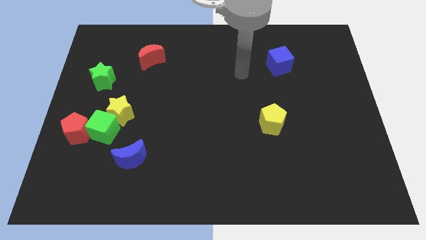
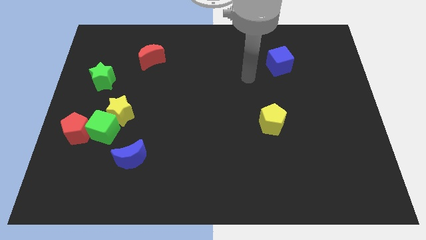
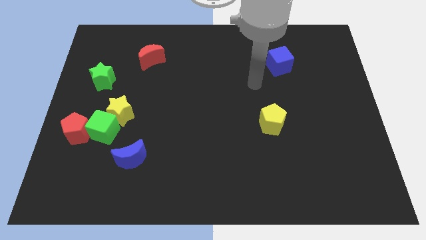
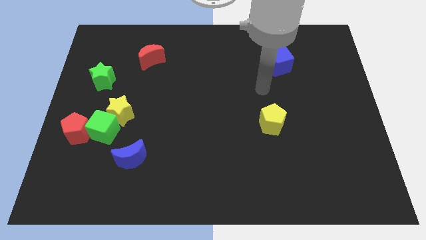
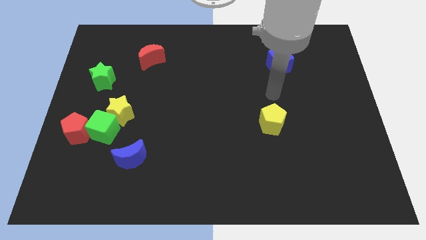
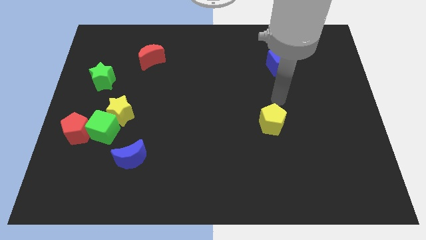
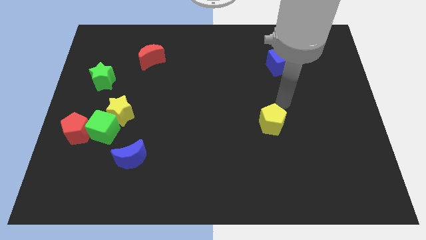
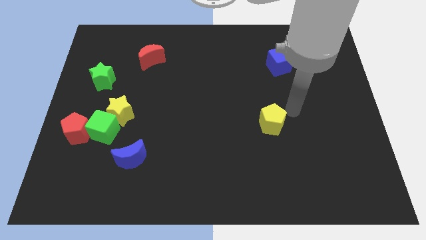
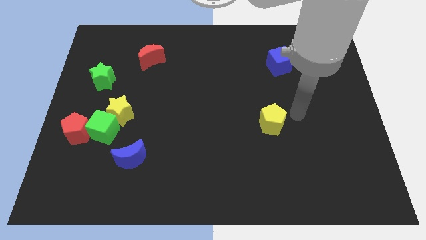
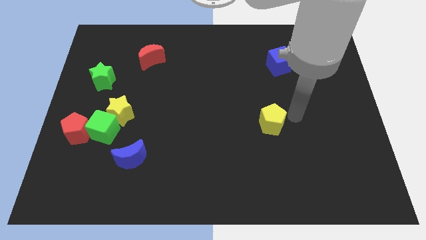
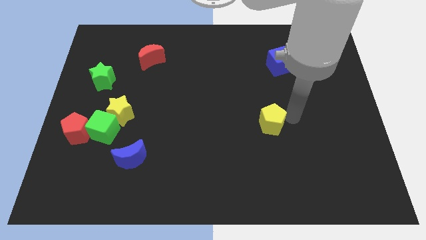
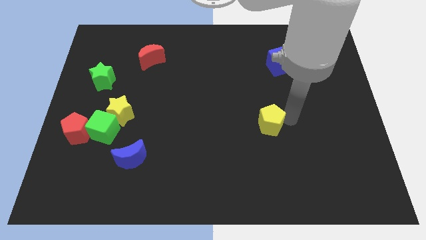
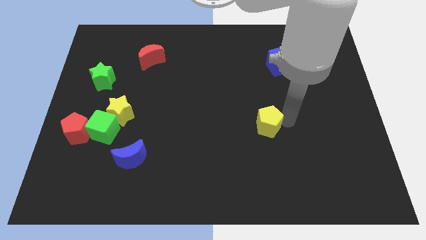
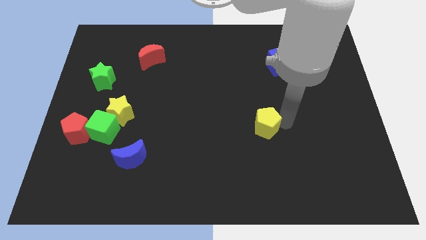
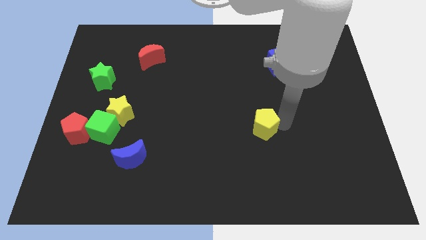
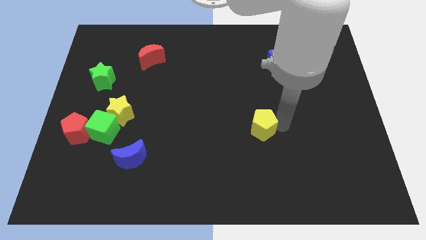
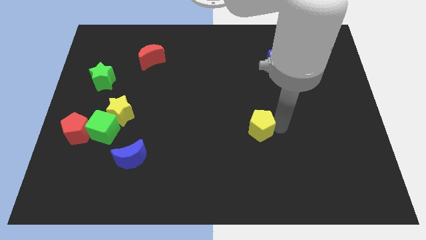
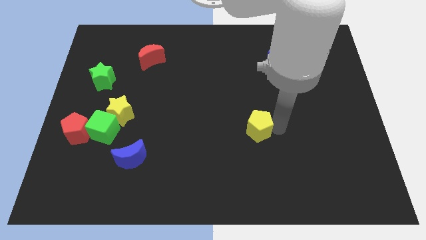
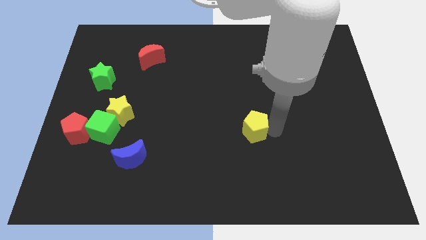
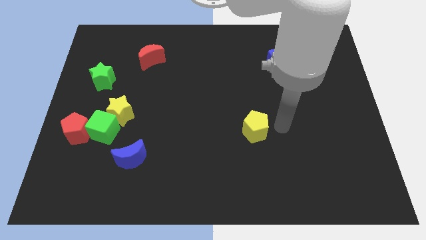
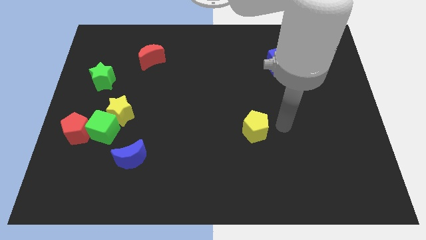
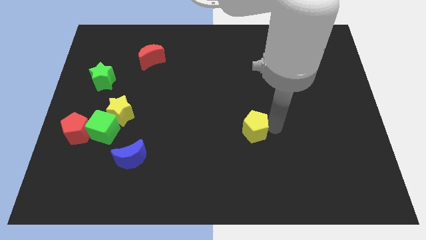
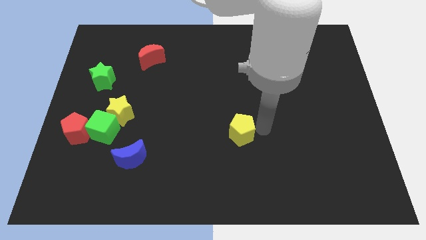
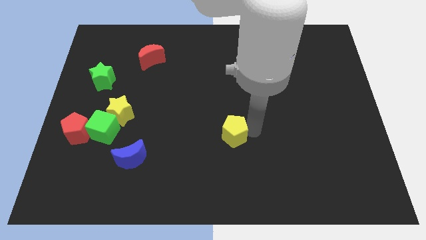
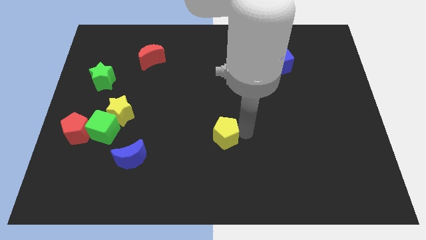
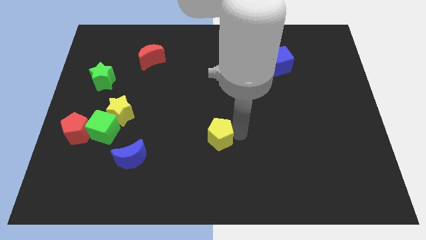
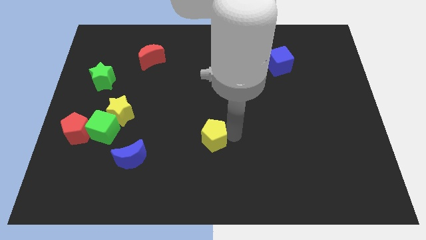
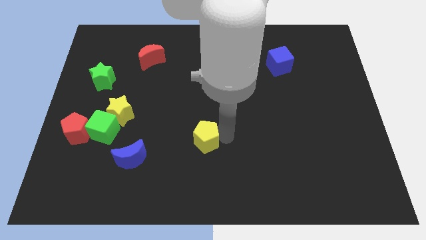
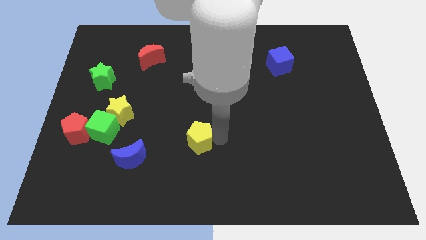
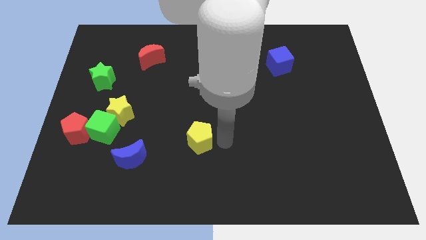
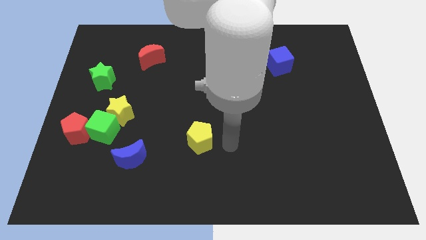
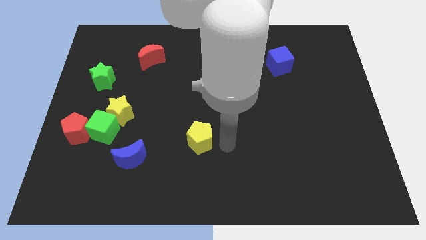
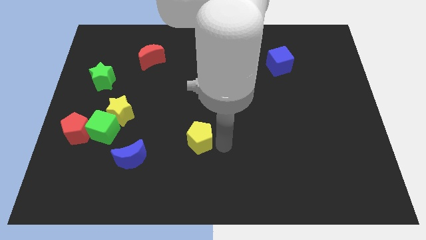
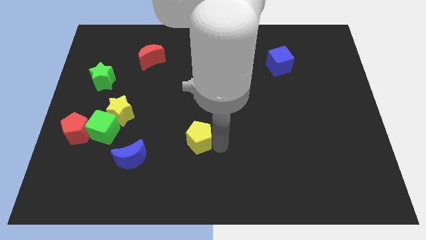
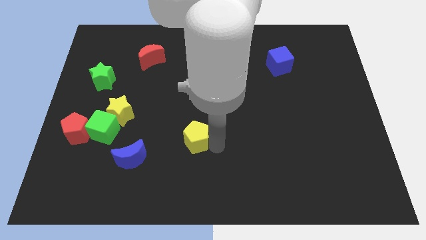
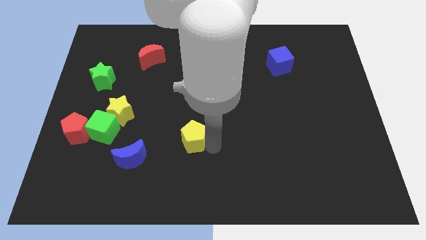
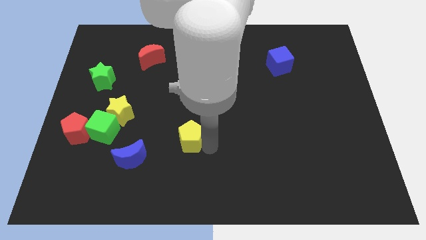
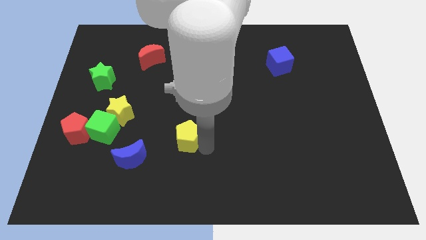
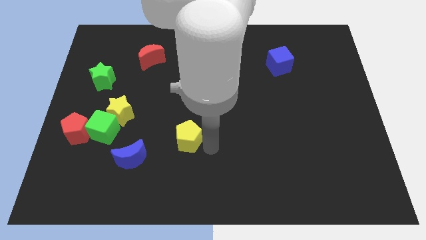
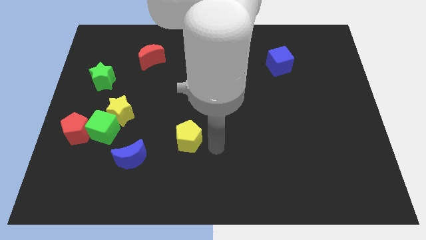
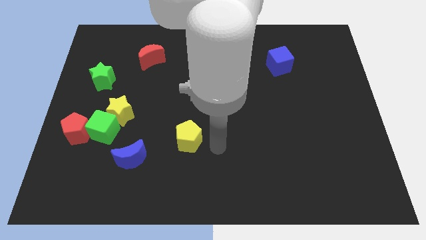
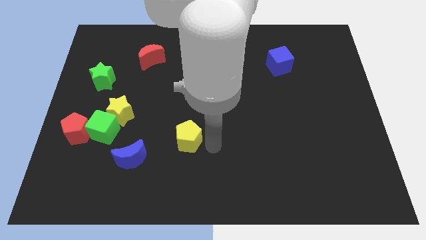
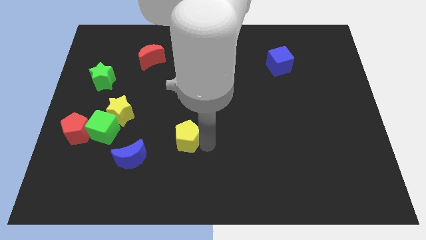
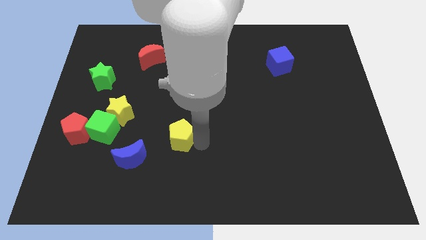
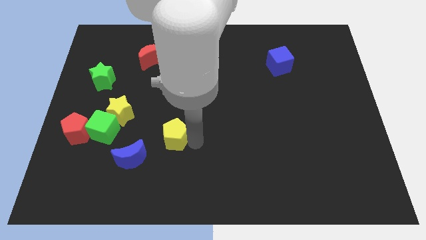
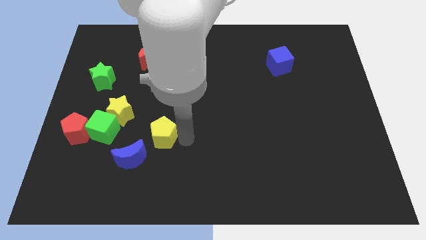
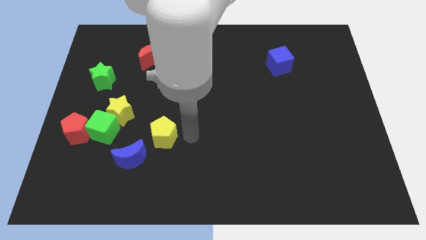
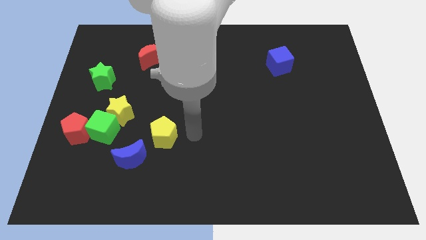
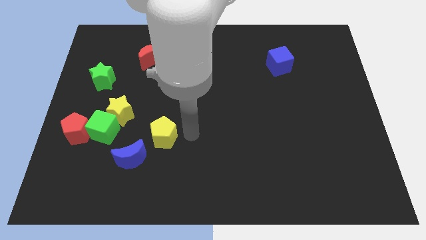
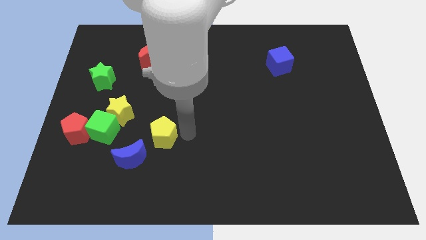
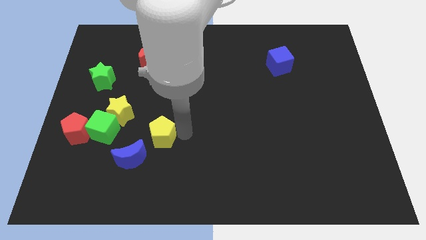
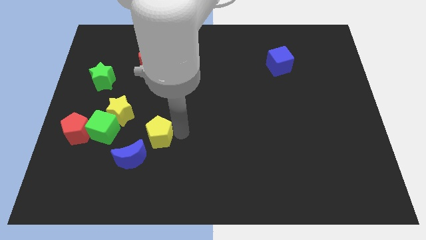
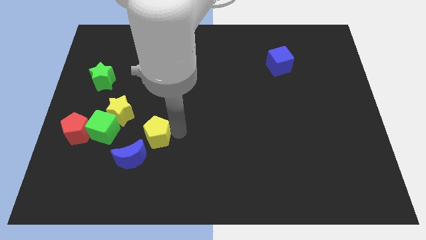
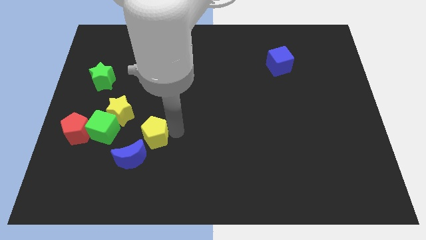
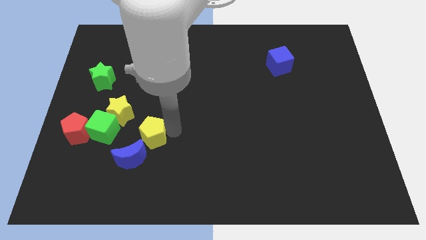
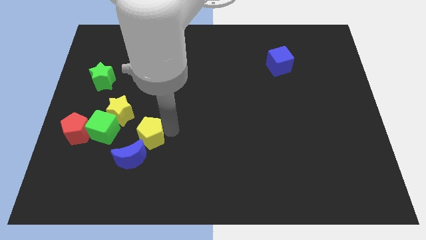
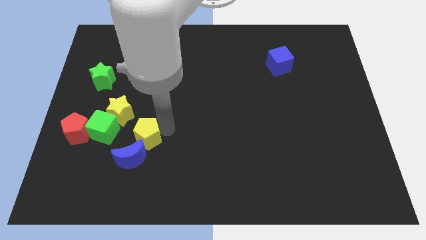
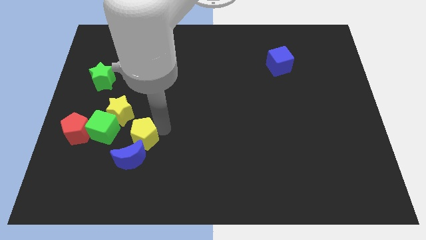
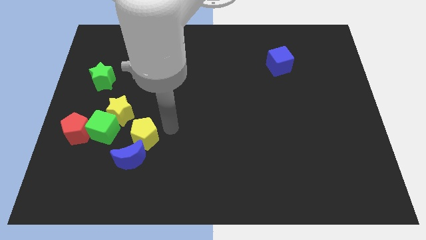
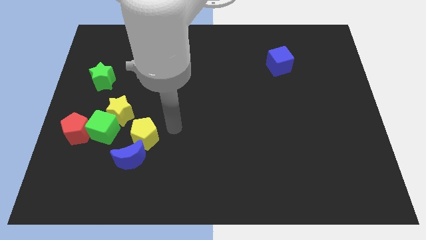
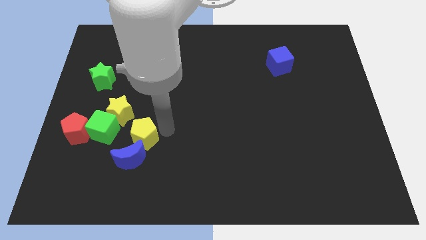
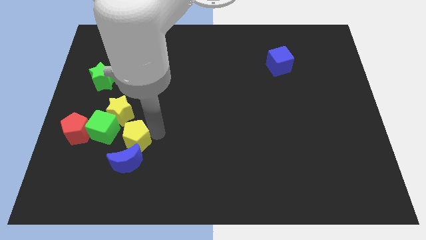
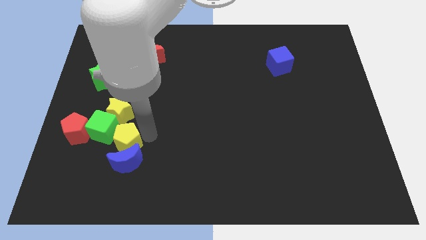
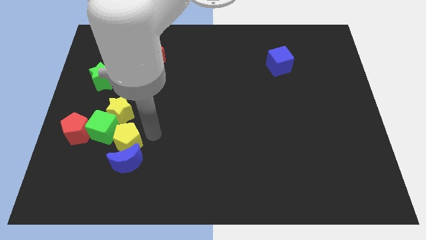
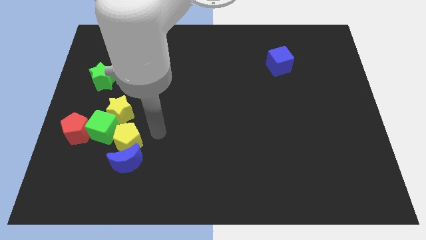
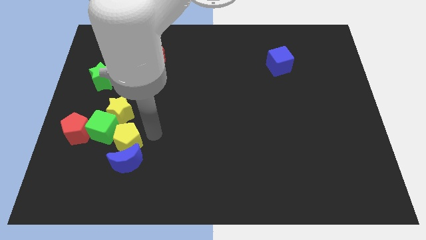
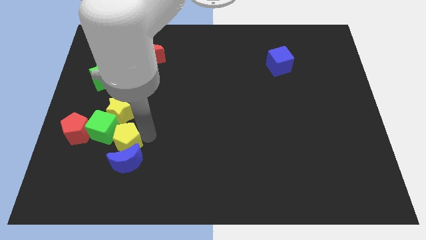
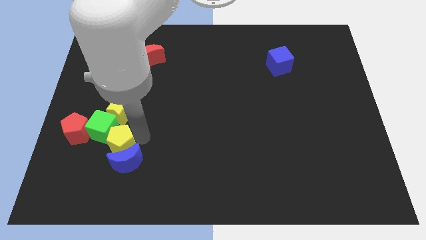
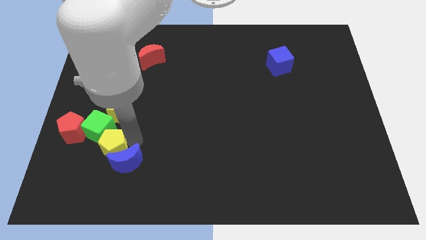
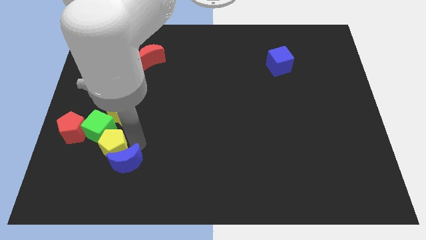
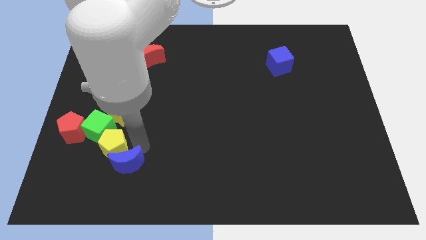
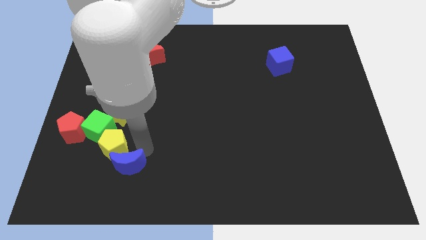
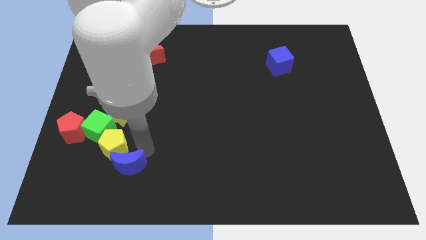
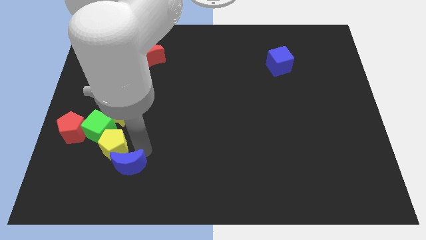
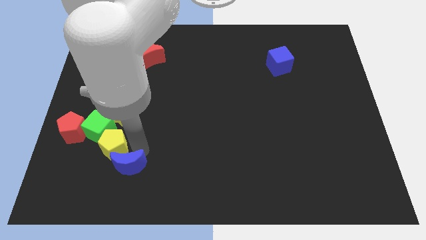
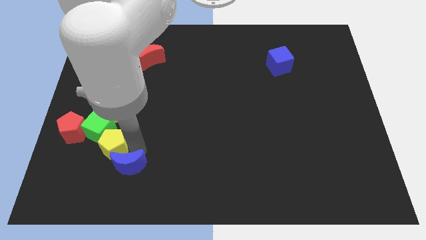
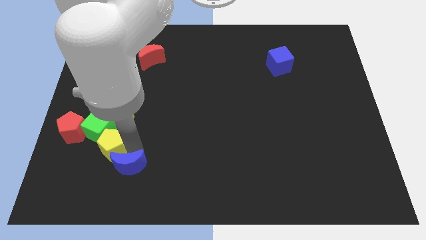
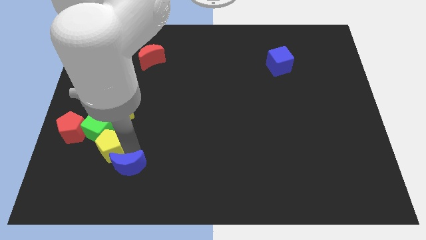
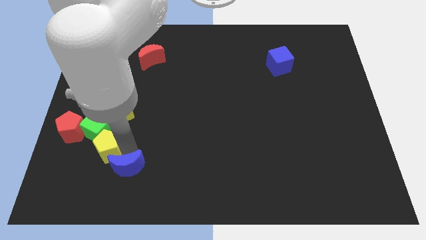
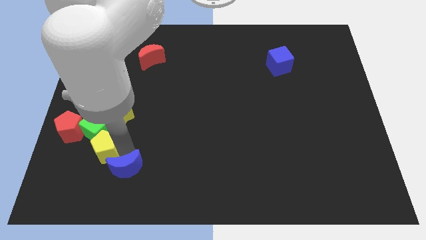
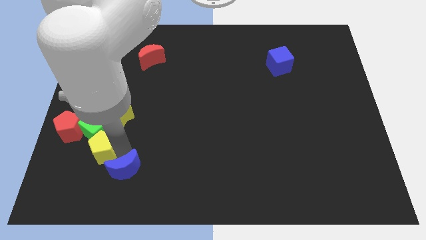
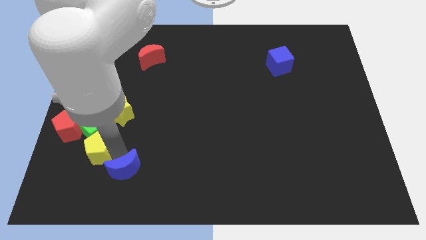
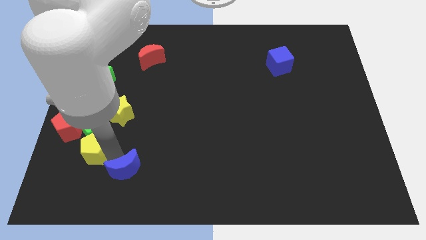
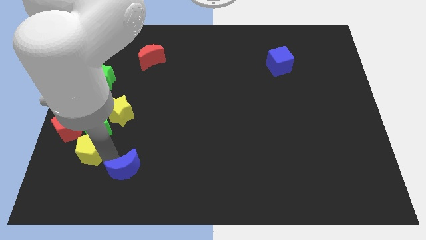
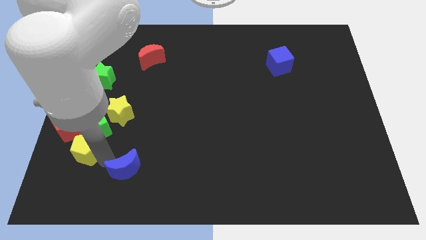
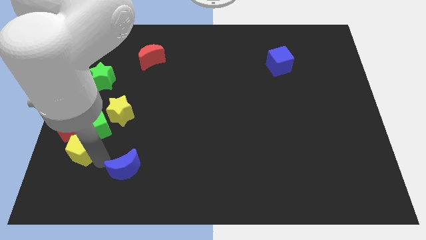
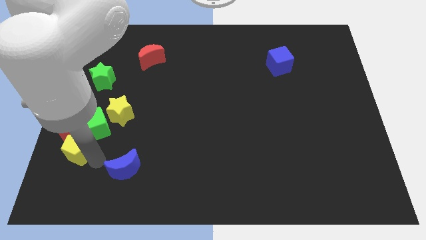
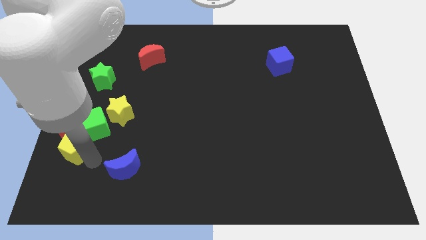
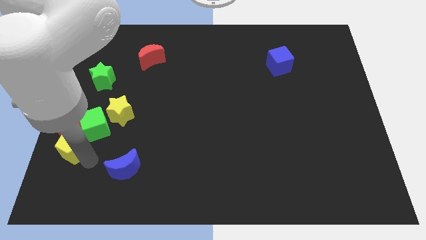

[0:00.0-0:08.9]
push the yellow pentagon to the red pentagon
